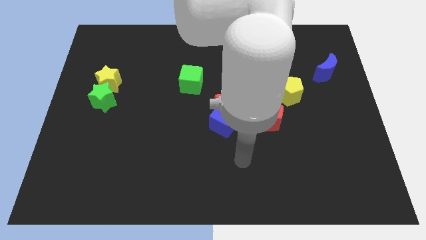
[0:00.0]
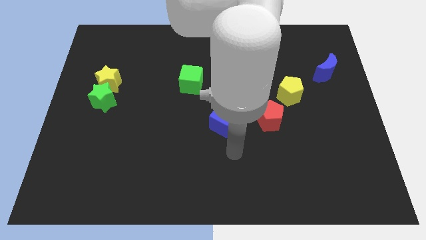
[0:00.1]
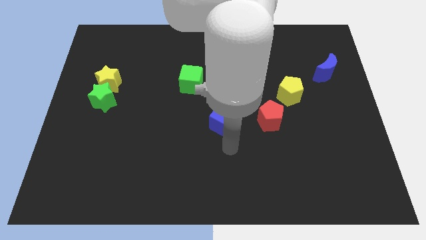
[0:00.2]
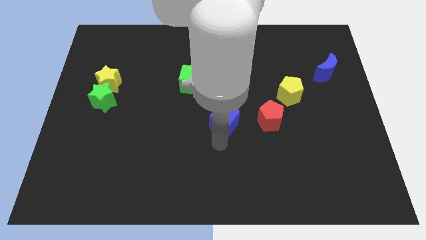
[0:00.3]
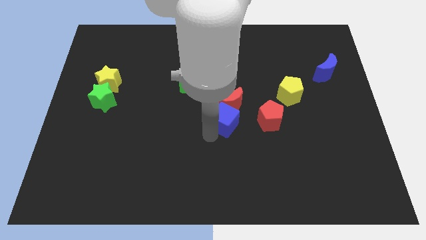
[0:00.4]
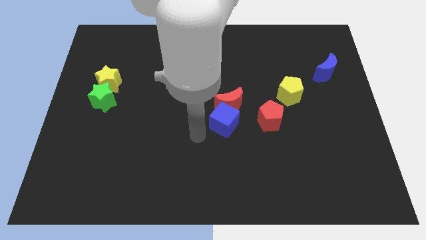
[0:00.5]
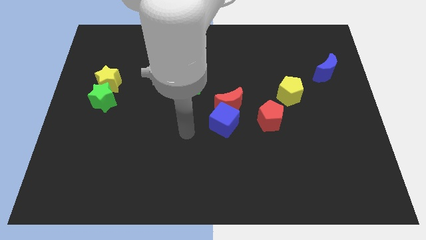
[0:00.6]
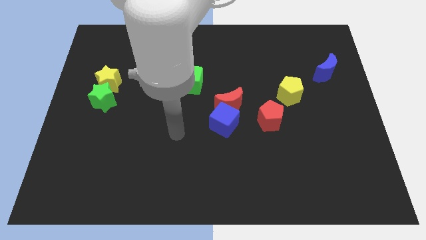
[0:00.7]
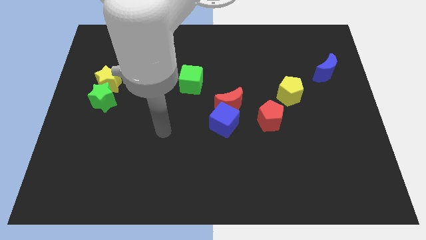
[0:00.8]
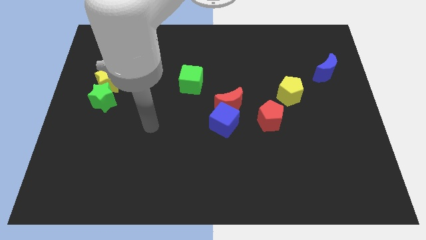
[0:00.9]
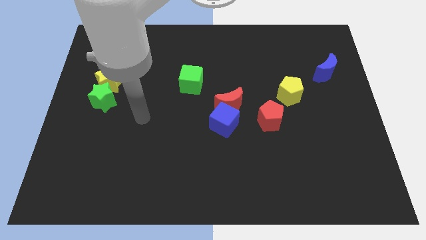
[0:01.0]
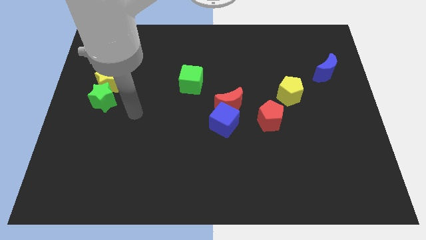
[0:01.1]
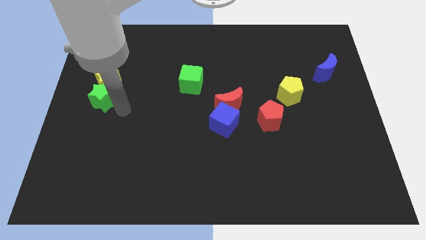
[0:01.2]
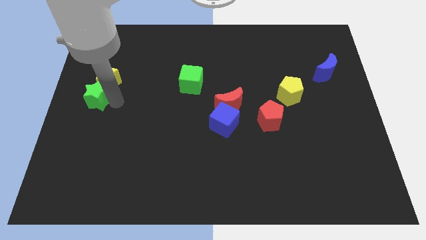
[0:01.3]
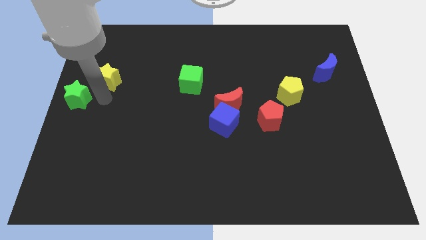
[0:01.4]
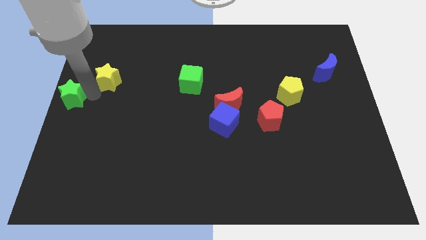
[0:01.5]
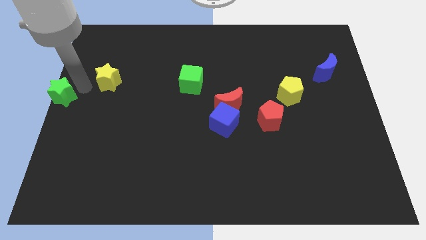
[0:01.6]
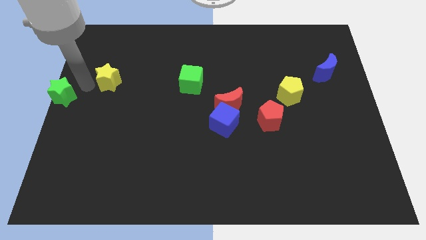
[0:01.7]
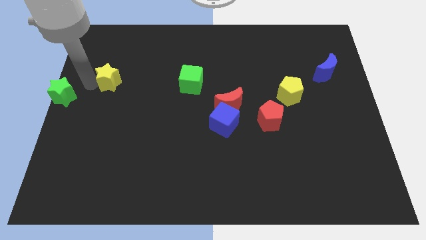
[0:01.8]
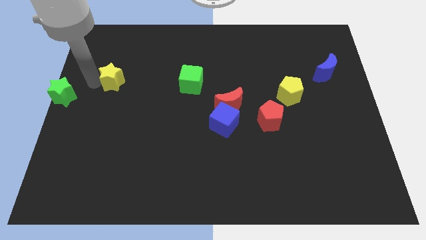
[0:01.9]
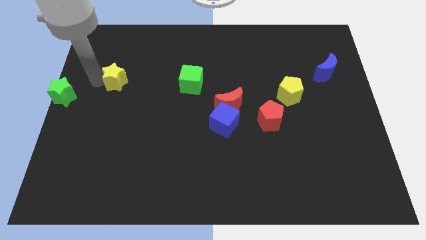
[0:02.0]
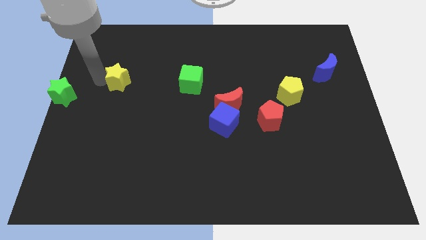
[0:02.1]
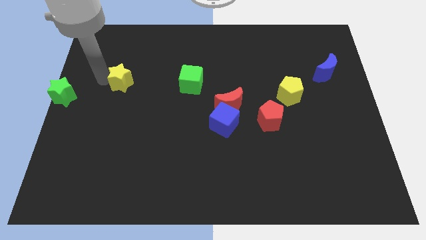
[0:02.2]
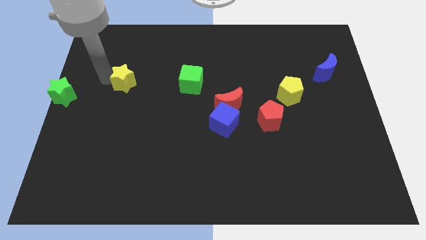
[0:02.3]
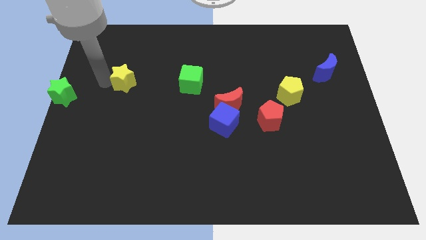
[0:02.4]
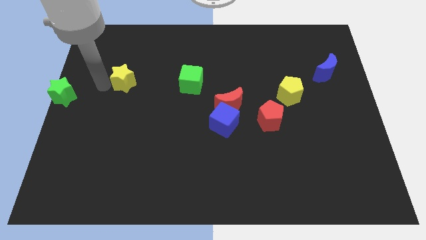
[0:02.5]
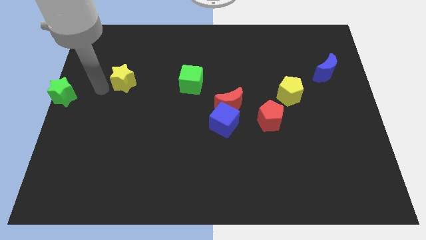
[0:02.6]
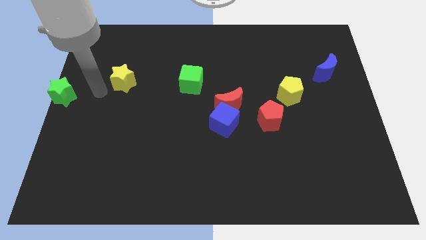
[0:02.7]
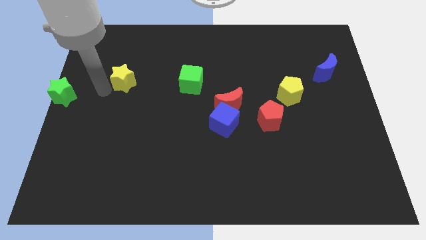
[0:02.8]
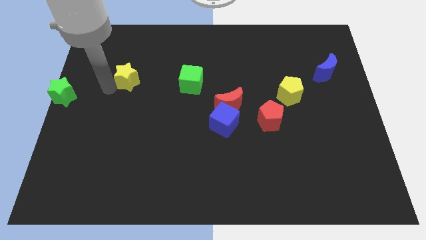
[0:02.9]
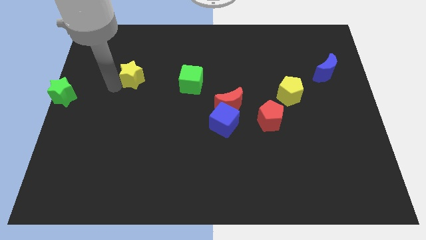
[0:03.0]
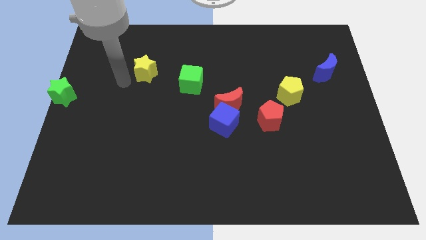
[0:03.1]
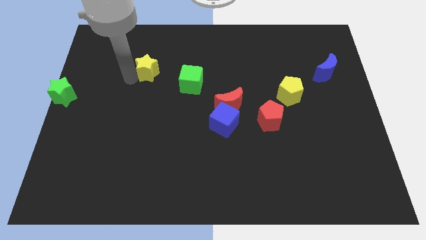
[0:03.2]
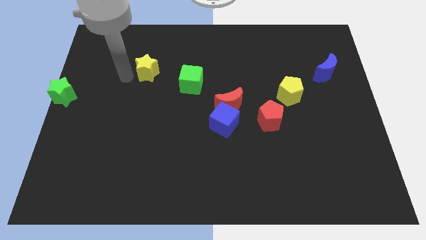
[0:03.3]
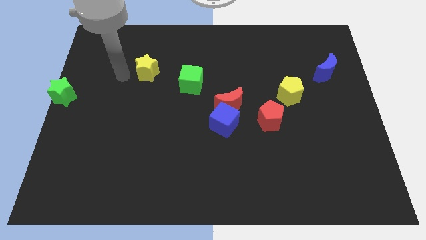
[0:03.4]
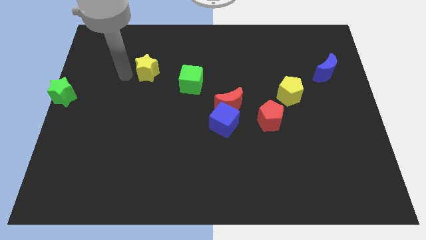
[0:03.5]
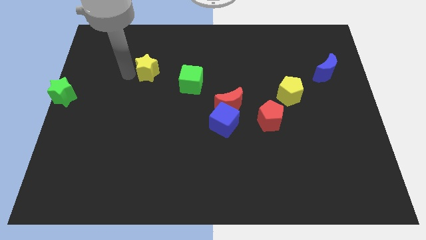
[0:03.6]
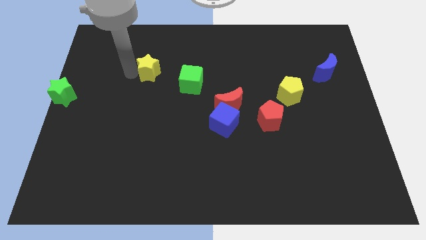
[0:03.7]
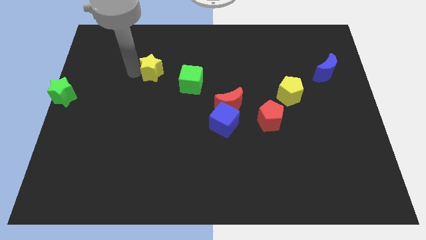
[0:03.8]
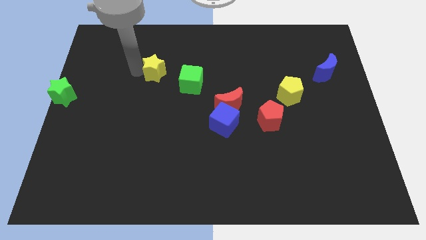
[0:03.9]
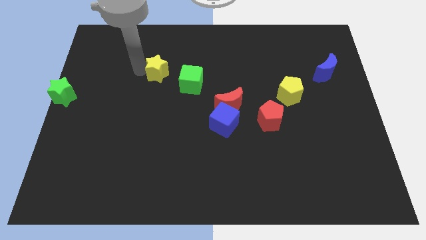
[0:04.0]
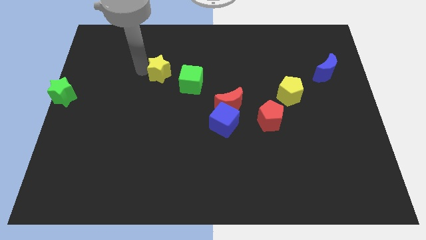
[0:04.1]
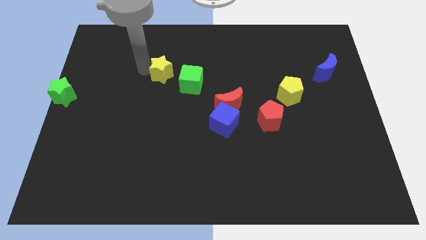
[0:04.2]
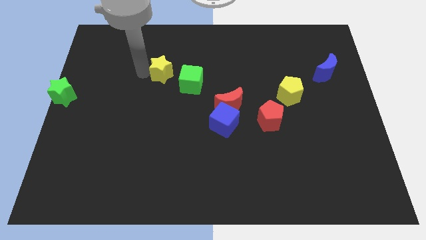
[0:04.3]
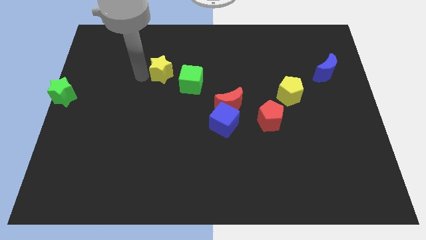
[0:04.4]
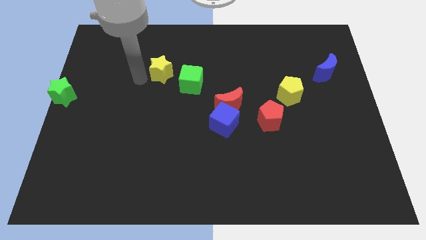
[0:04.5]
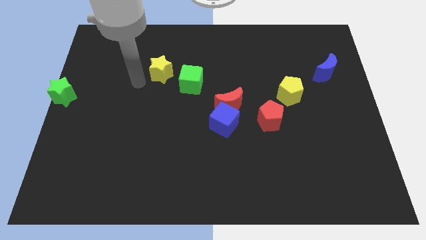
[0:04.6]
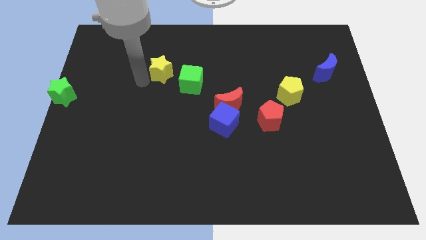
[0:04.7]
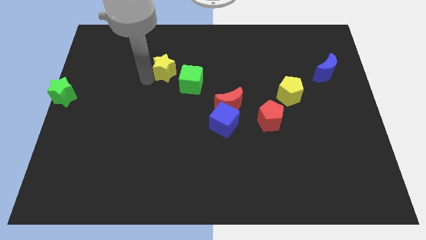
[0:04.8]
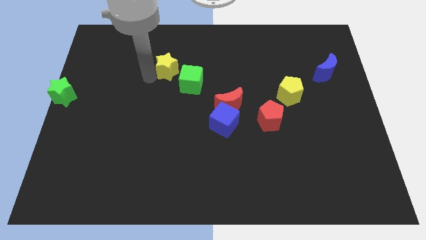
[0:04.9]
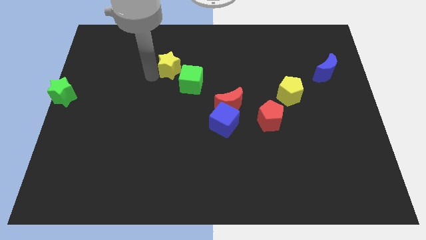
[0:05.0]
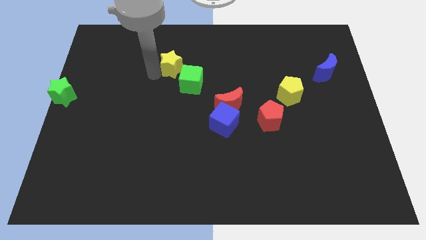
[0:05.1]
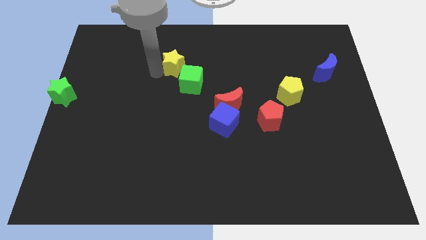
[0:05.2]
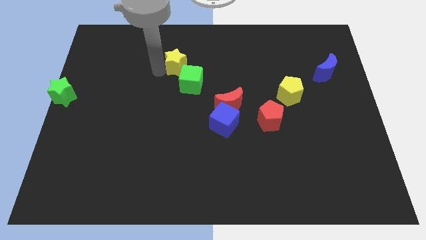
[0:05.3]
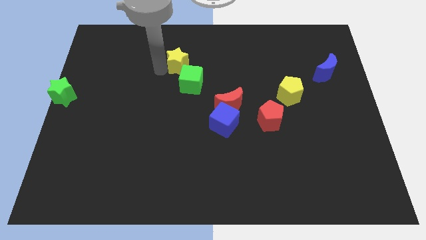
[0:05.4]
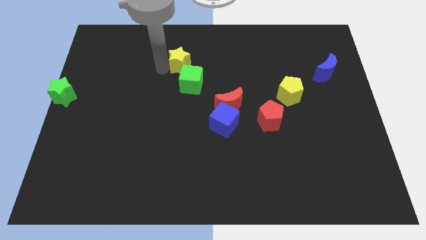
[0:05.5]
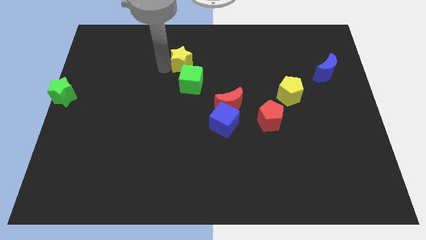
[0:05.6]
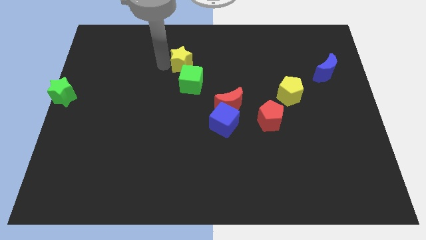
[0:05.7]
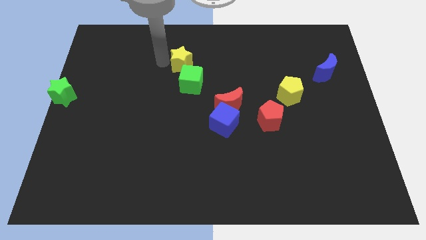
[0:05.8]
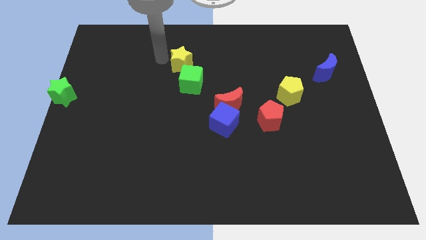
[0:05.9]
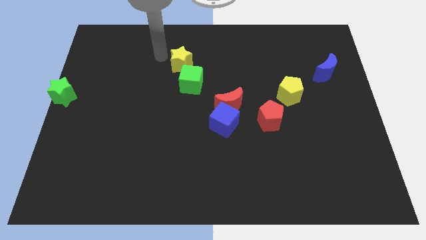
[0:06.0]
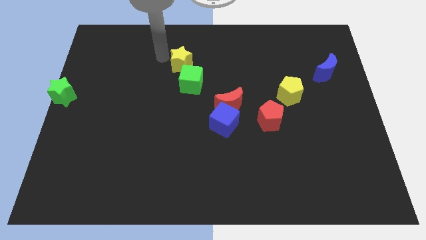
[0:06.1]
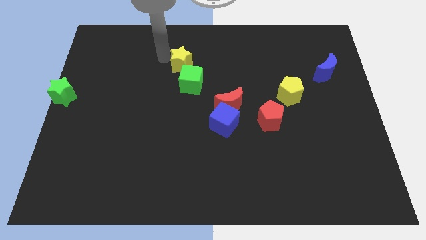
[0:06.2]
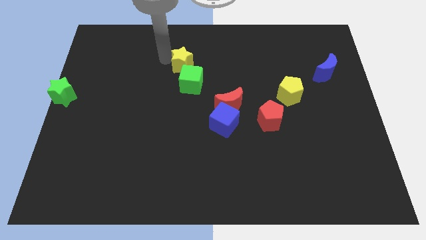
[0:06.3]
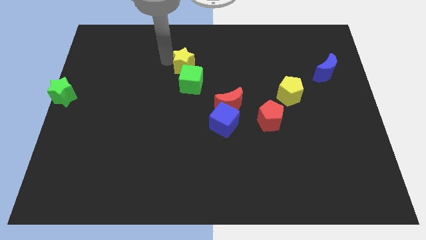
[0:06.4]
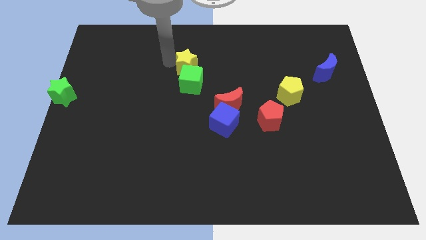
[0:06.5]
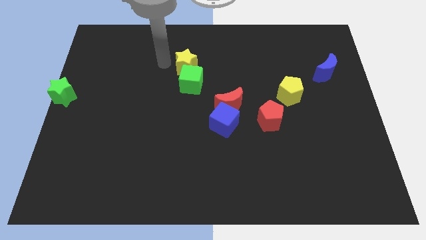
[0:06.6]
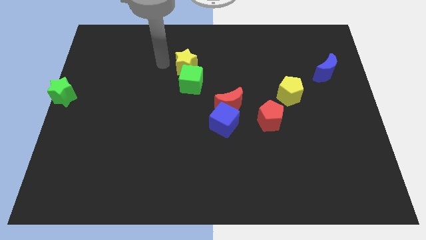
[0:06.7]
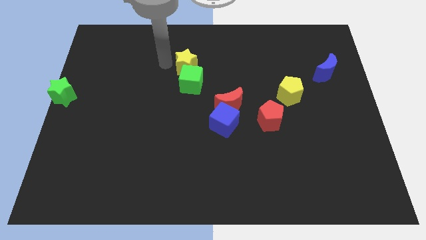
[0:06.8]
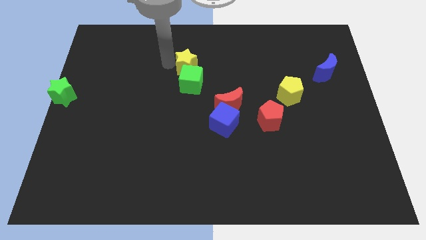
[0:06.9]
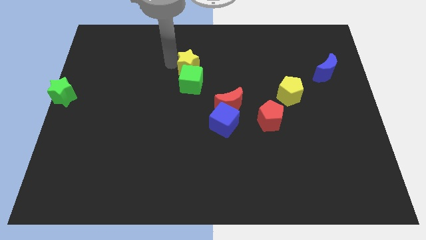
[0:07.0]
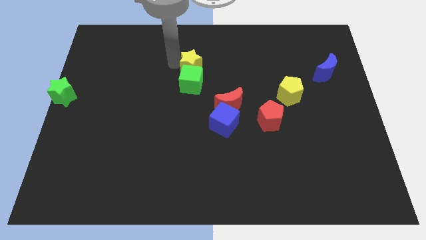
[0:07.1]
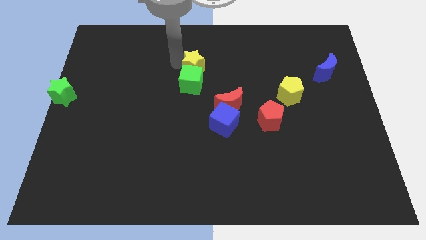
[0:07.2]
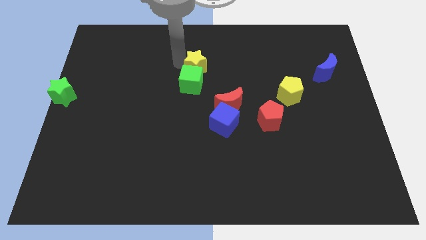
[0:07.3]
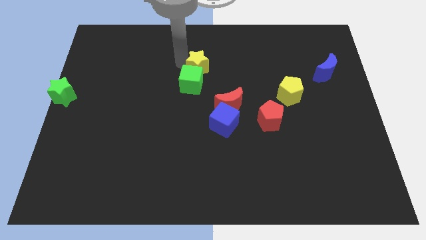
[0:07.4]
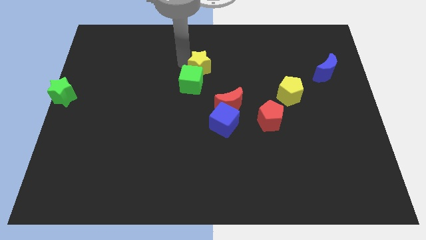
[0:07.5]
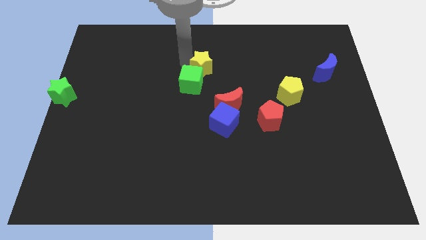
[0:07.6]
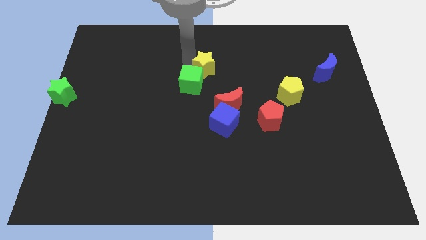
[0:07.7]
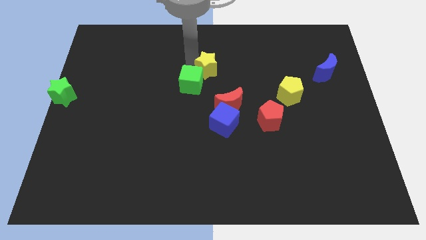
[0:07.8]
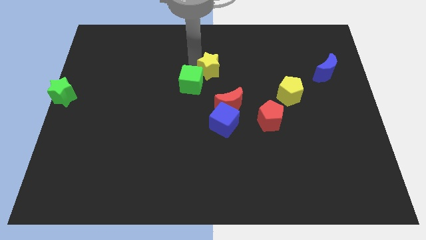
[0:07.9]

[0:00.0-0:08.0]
slide the yellow star to the top side of the red moon
